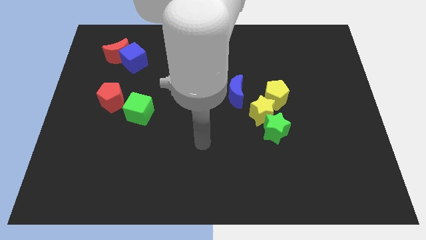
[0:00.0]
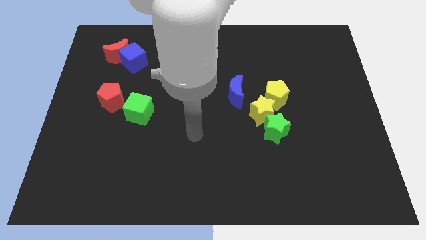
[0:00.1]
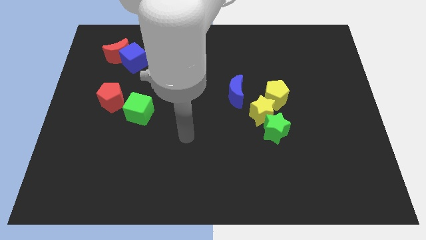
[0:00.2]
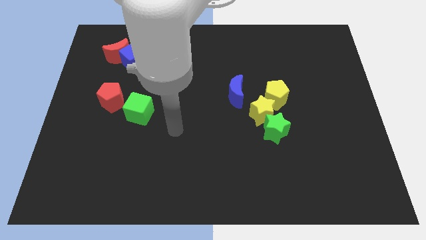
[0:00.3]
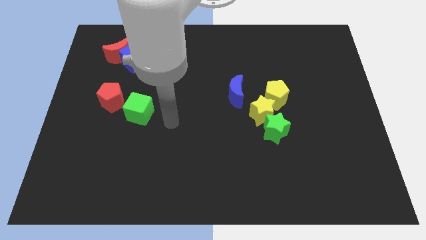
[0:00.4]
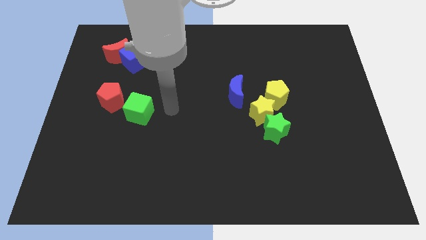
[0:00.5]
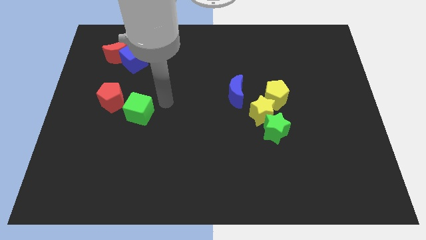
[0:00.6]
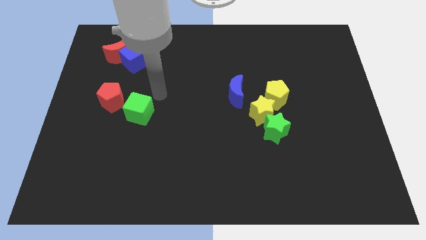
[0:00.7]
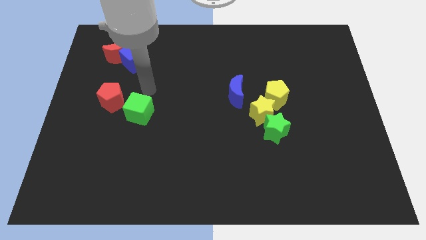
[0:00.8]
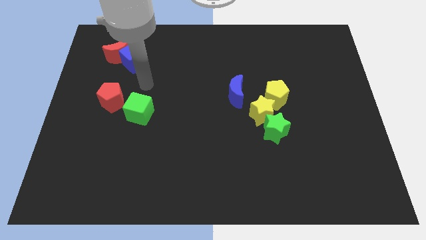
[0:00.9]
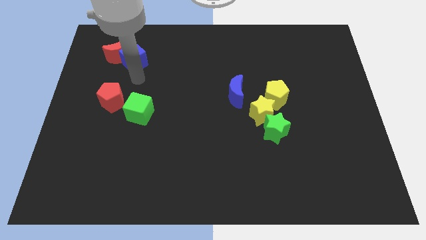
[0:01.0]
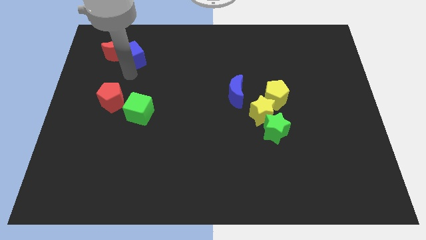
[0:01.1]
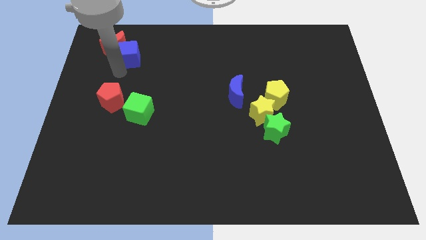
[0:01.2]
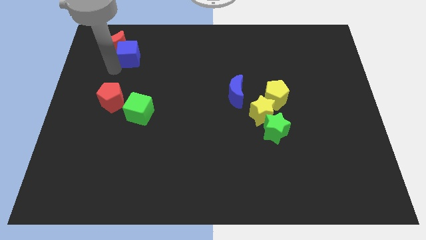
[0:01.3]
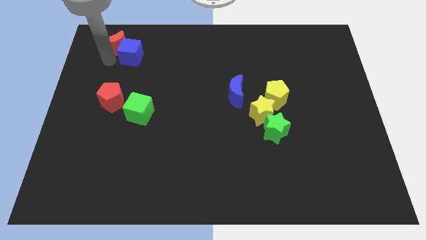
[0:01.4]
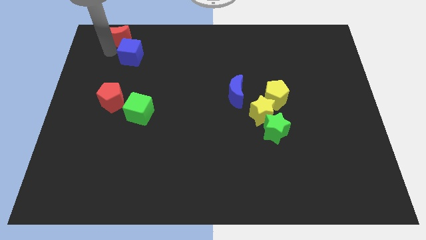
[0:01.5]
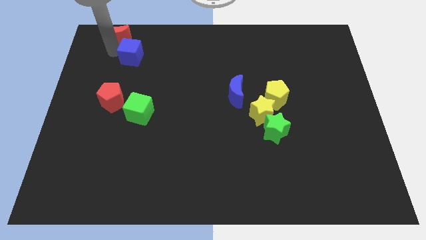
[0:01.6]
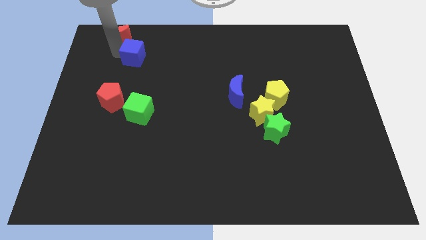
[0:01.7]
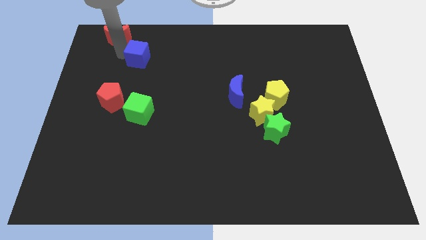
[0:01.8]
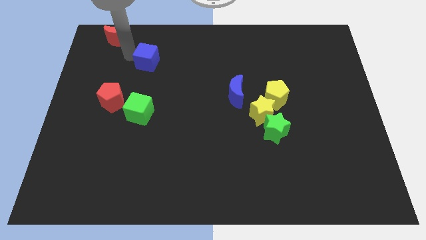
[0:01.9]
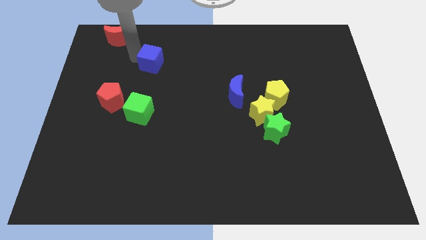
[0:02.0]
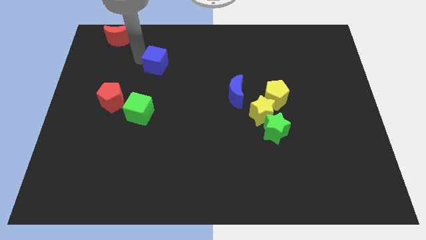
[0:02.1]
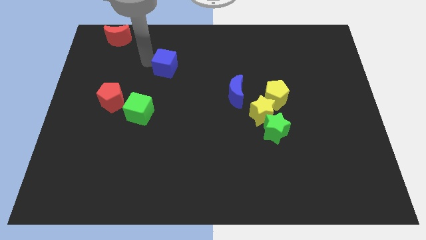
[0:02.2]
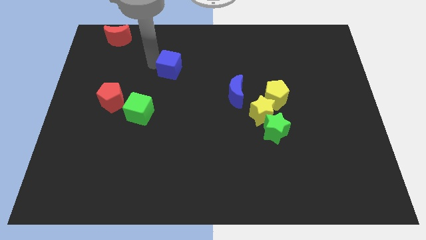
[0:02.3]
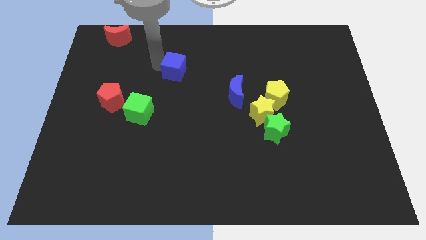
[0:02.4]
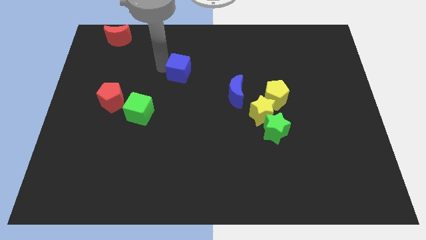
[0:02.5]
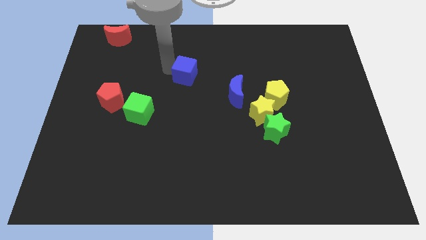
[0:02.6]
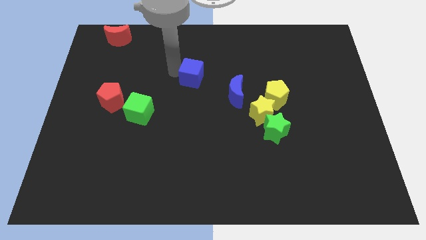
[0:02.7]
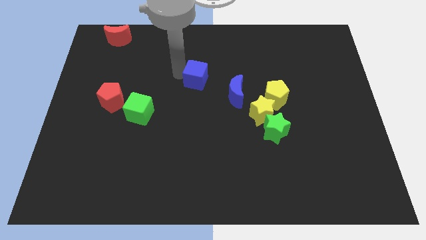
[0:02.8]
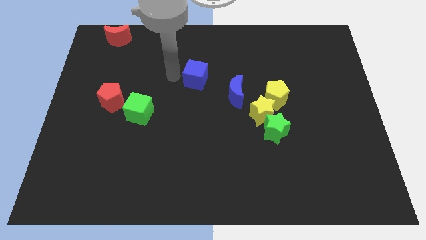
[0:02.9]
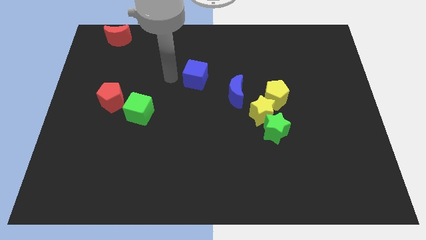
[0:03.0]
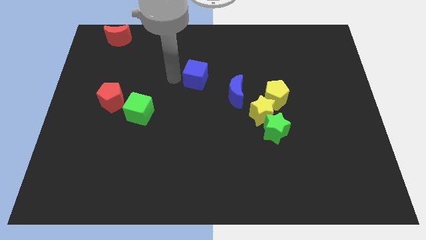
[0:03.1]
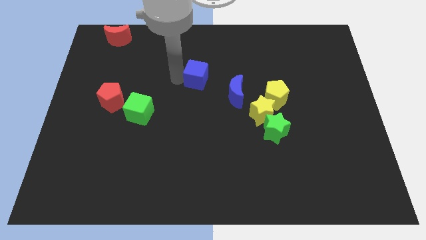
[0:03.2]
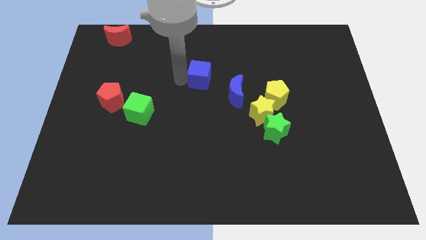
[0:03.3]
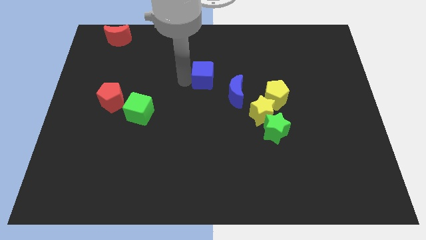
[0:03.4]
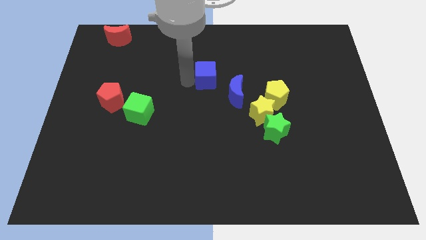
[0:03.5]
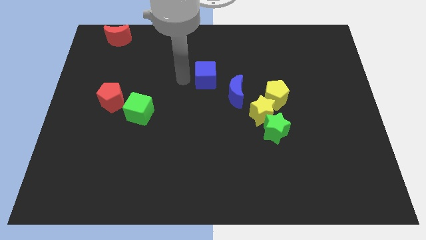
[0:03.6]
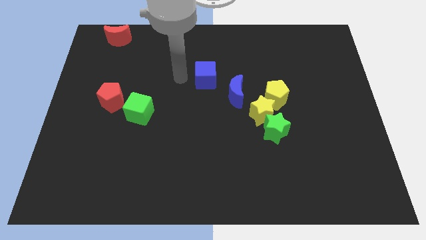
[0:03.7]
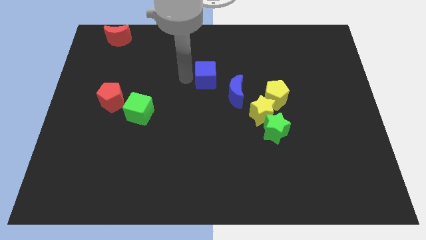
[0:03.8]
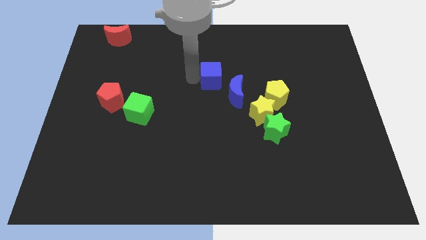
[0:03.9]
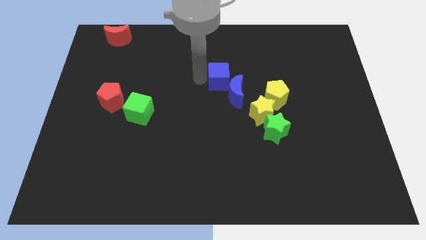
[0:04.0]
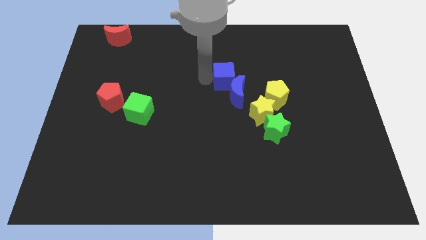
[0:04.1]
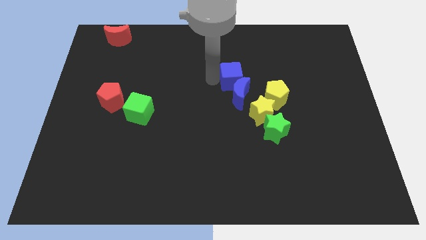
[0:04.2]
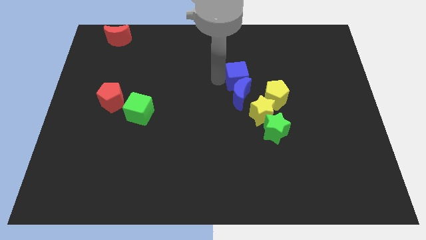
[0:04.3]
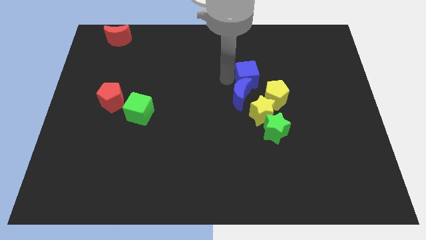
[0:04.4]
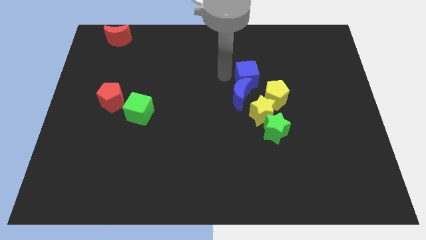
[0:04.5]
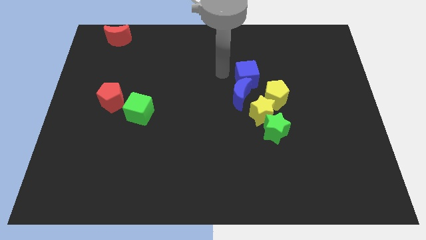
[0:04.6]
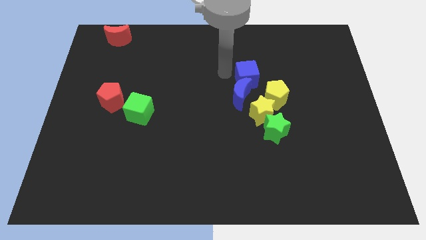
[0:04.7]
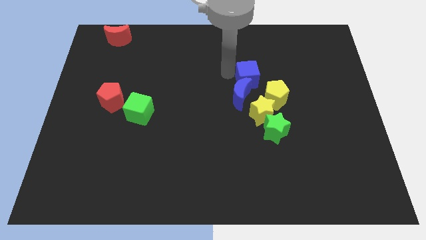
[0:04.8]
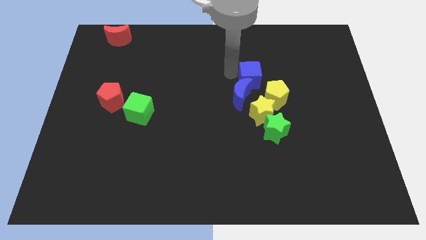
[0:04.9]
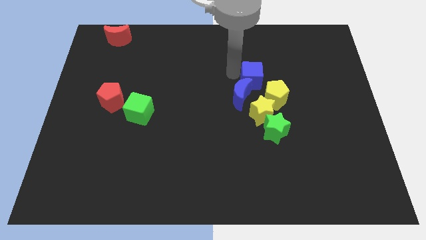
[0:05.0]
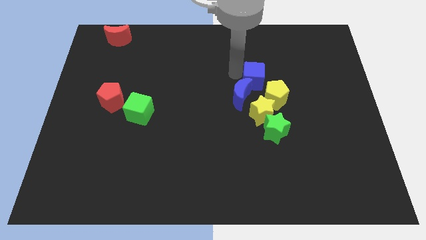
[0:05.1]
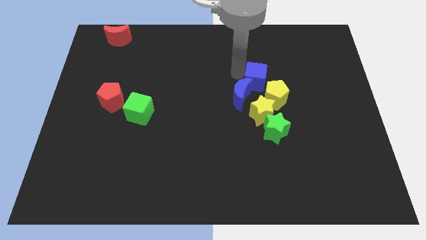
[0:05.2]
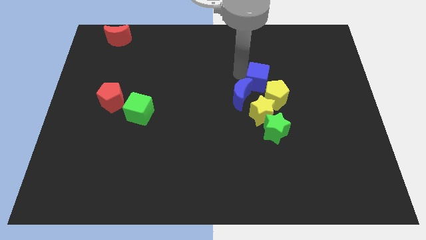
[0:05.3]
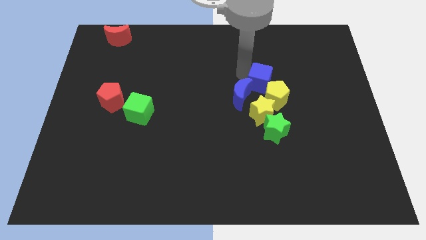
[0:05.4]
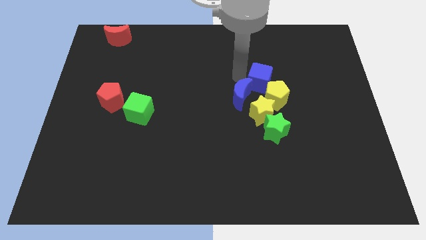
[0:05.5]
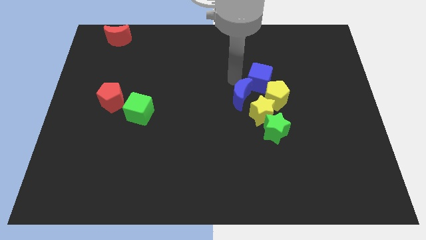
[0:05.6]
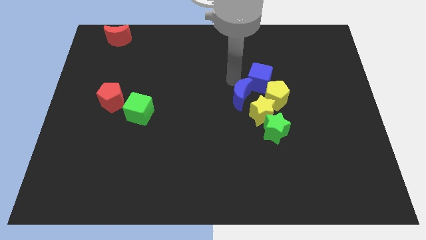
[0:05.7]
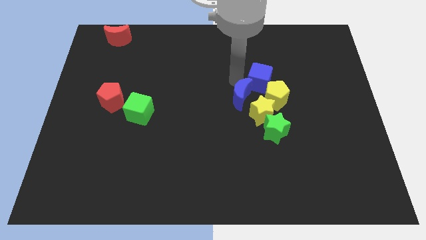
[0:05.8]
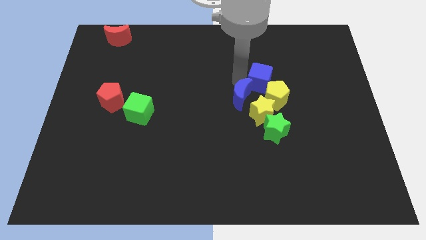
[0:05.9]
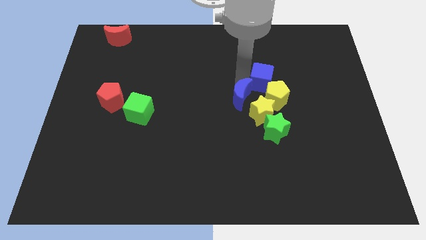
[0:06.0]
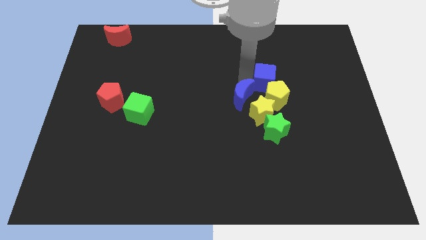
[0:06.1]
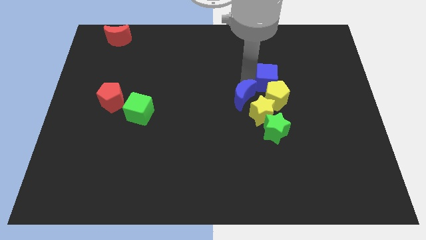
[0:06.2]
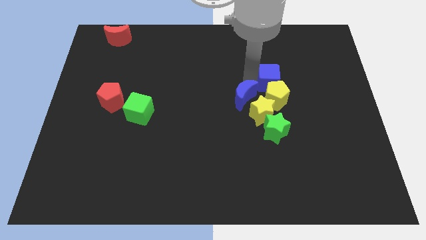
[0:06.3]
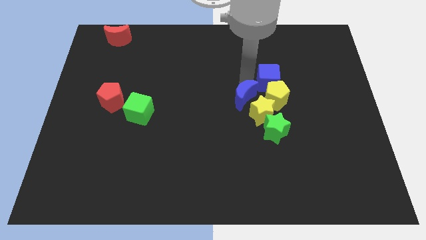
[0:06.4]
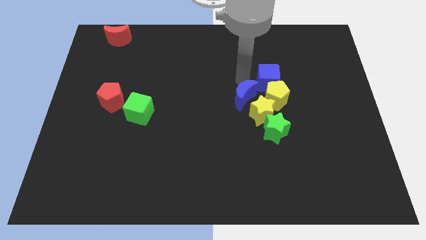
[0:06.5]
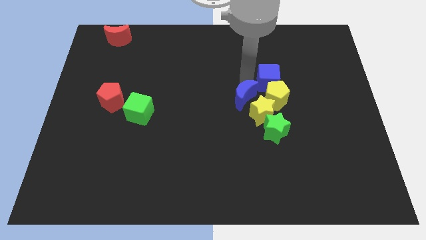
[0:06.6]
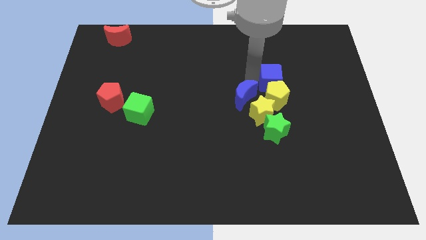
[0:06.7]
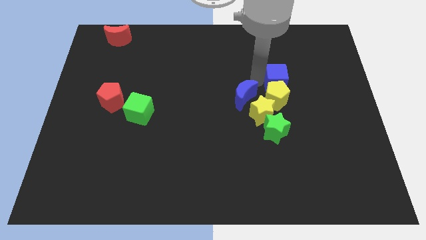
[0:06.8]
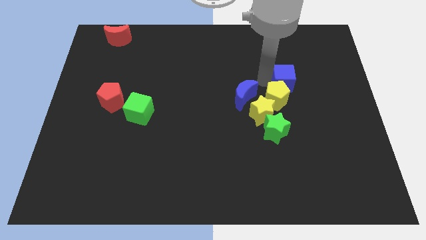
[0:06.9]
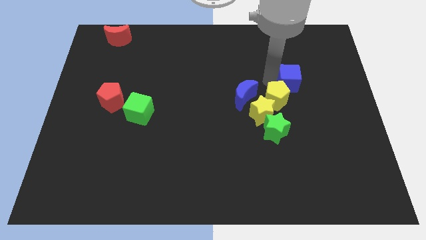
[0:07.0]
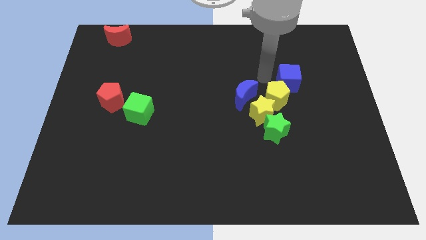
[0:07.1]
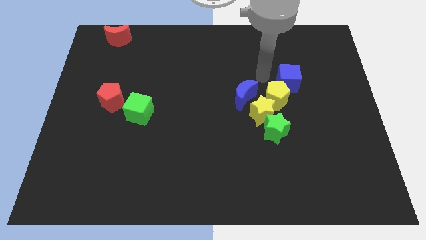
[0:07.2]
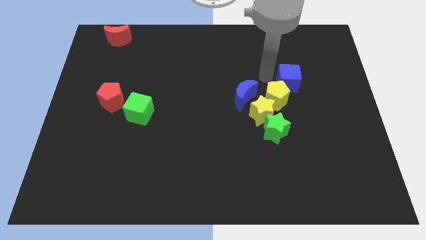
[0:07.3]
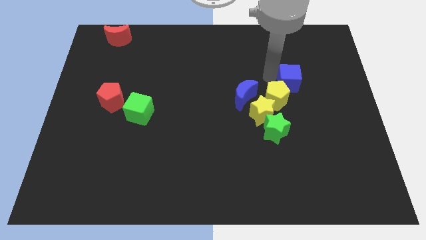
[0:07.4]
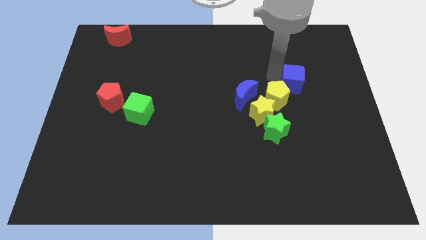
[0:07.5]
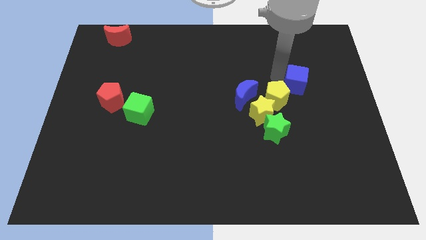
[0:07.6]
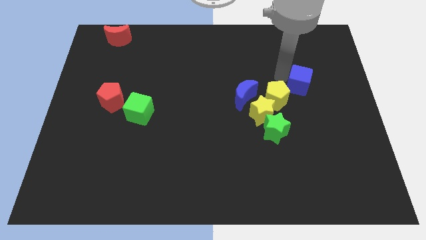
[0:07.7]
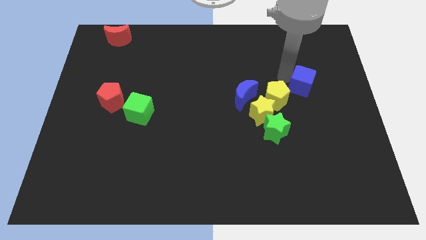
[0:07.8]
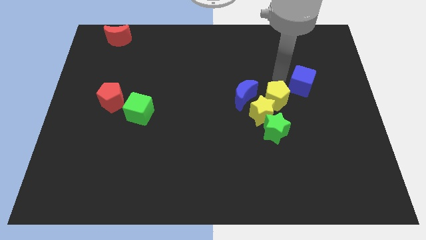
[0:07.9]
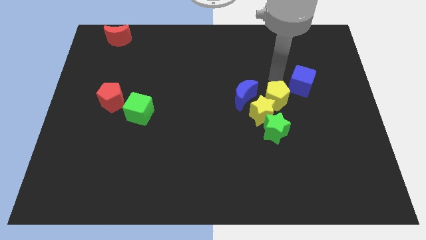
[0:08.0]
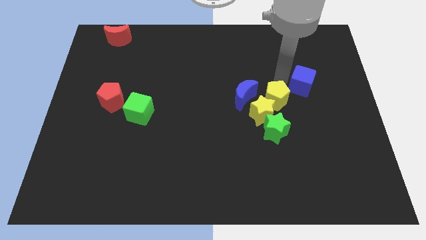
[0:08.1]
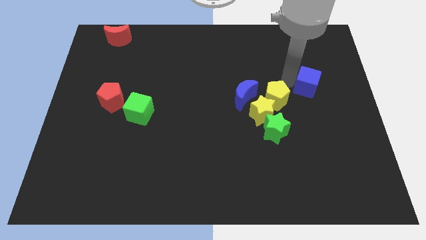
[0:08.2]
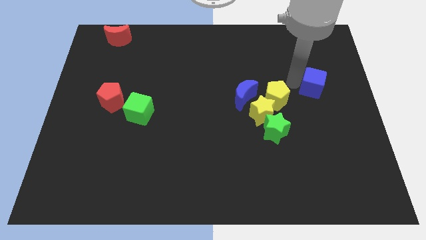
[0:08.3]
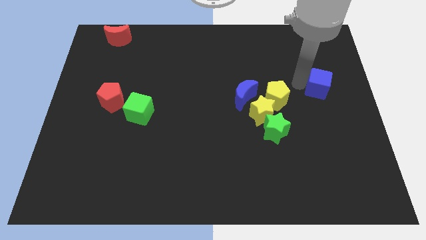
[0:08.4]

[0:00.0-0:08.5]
push the blue cube to the center right
